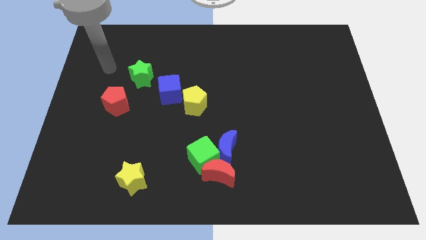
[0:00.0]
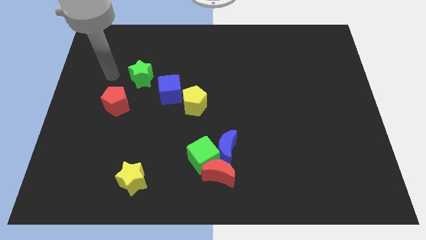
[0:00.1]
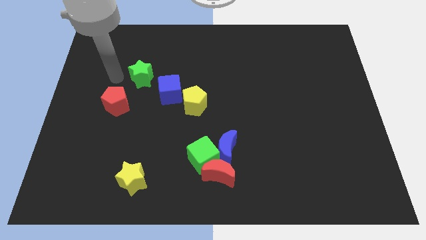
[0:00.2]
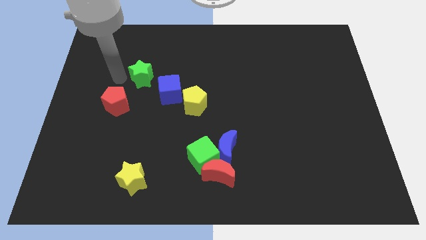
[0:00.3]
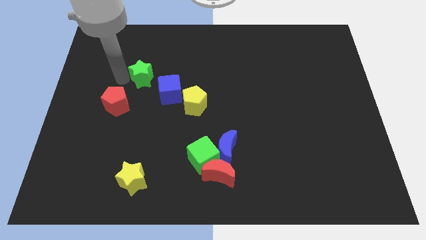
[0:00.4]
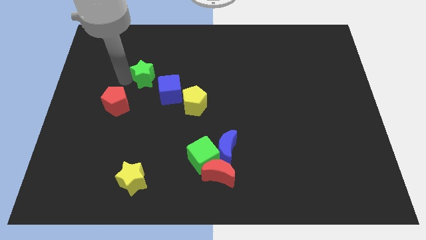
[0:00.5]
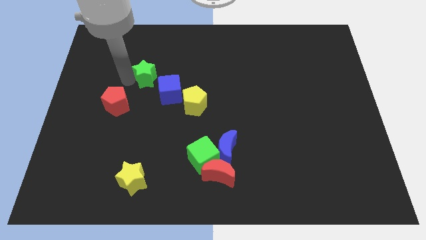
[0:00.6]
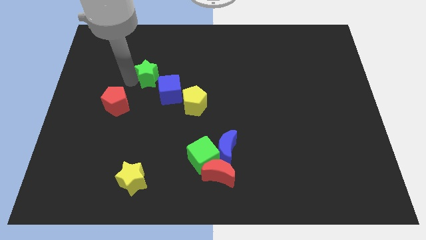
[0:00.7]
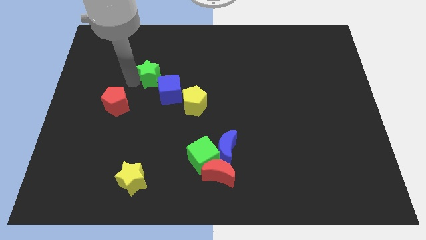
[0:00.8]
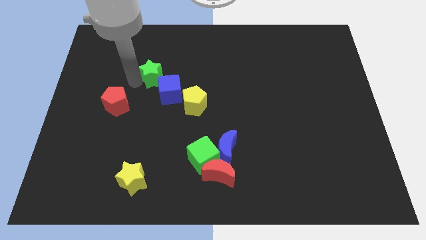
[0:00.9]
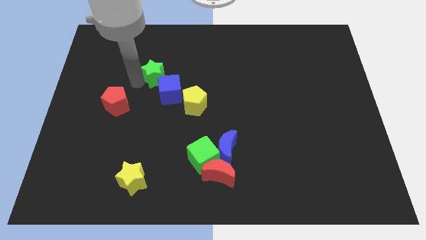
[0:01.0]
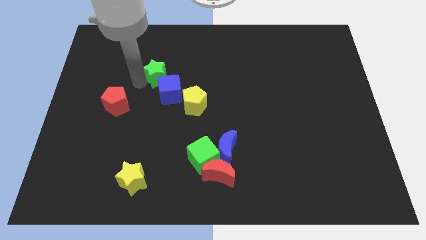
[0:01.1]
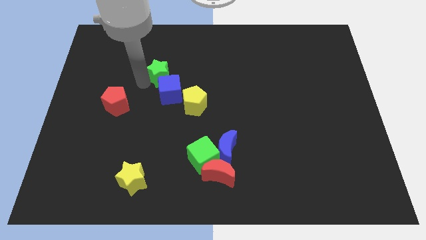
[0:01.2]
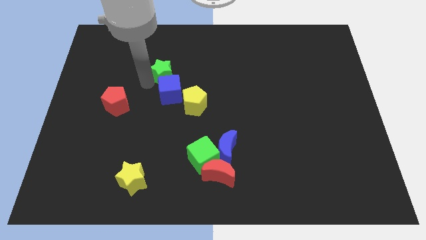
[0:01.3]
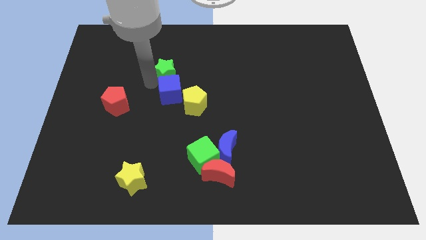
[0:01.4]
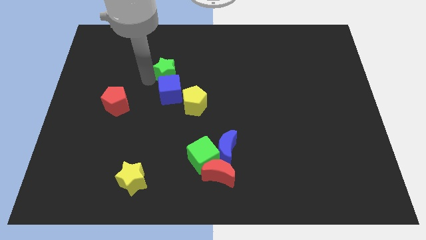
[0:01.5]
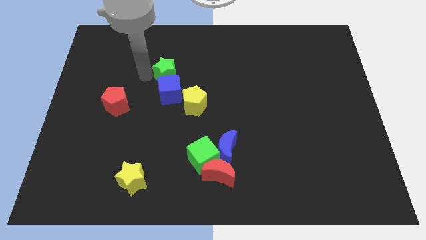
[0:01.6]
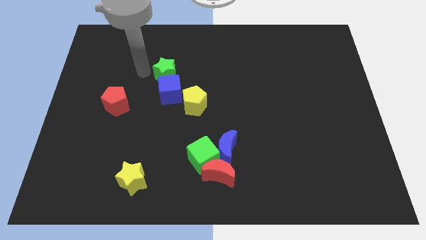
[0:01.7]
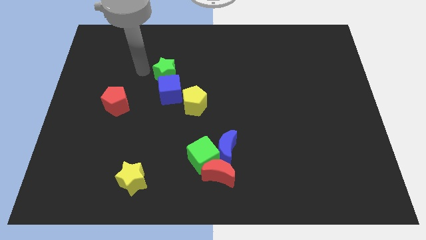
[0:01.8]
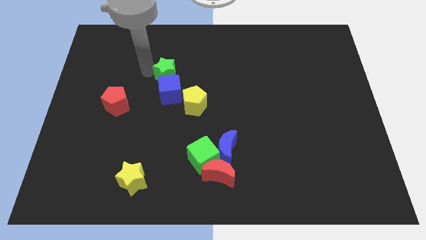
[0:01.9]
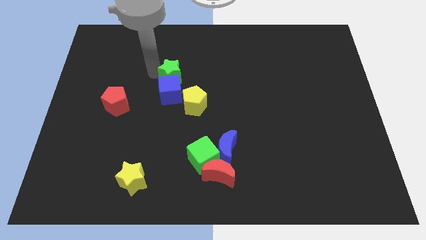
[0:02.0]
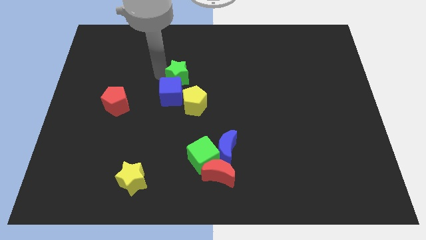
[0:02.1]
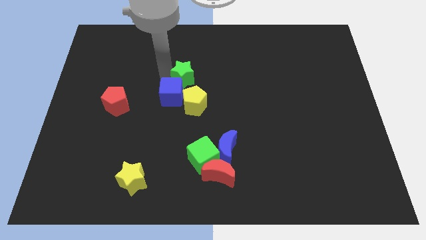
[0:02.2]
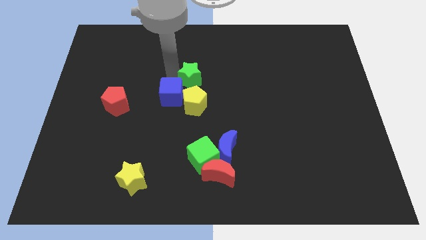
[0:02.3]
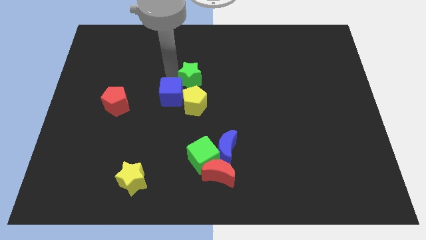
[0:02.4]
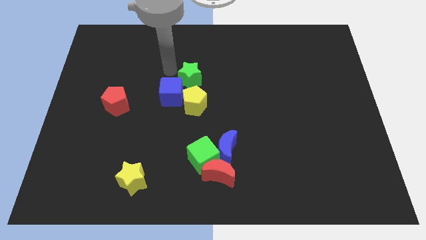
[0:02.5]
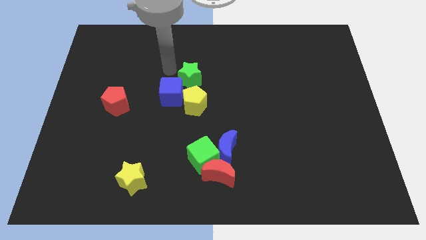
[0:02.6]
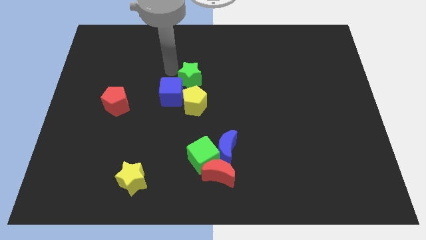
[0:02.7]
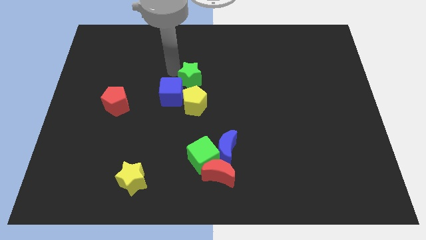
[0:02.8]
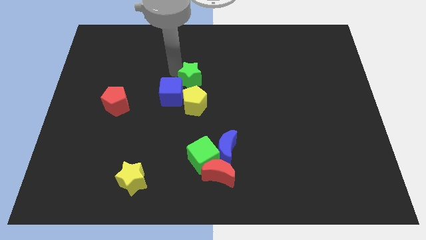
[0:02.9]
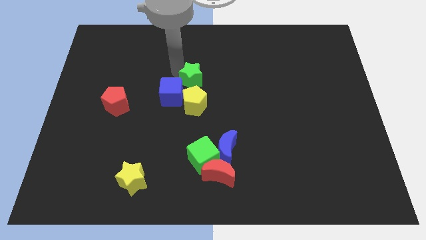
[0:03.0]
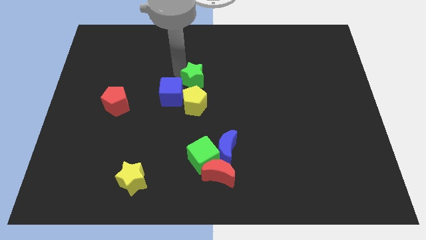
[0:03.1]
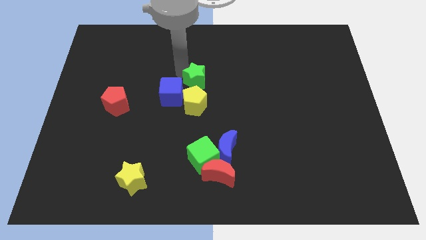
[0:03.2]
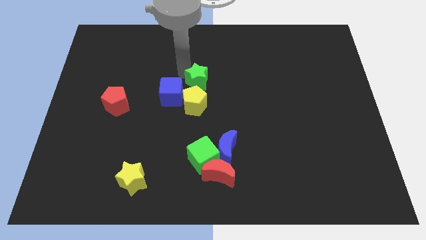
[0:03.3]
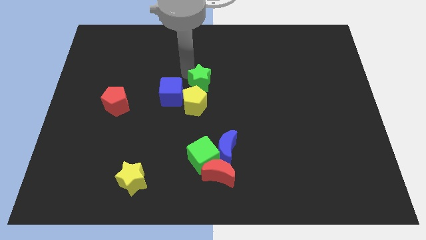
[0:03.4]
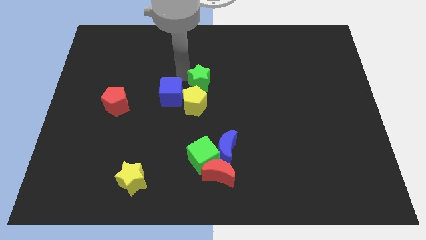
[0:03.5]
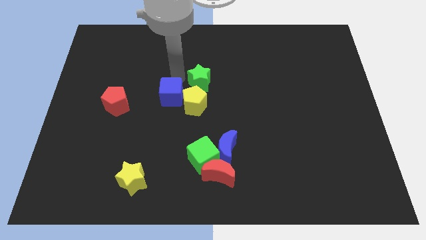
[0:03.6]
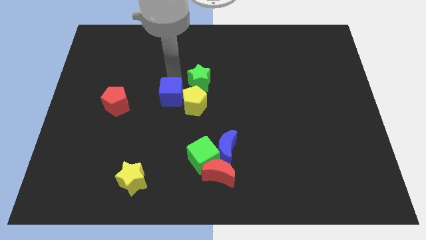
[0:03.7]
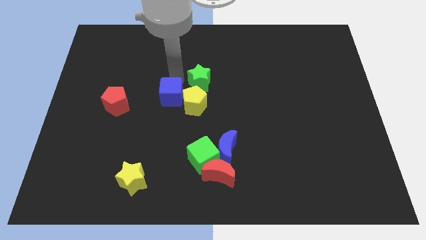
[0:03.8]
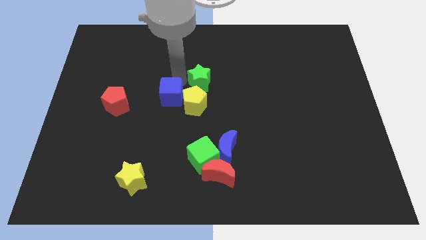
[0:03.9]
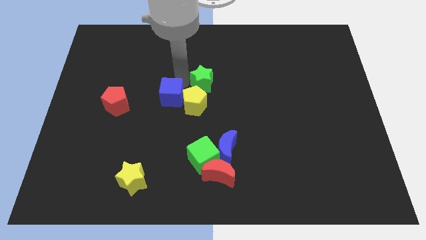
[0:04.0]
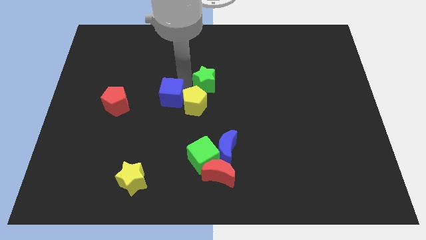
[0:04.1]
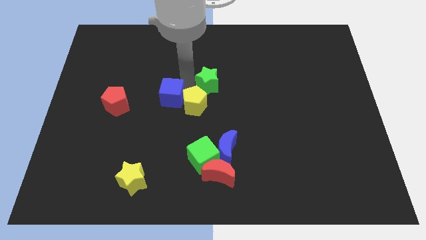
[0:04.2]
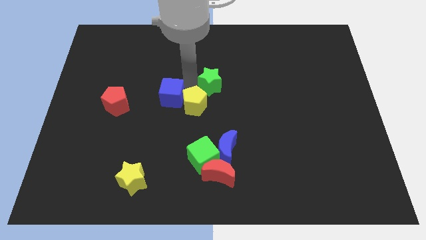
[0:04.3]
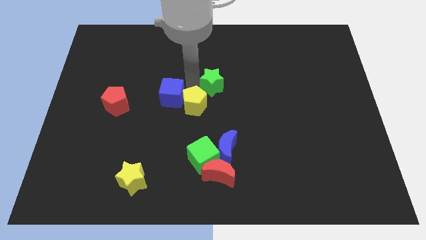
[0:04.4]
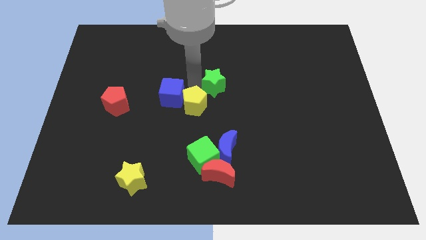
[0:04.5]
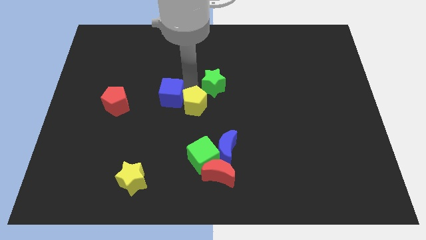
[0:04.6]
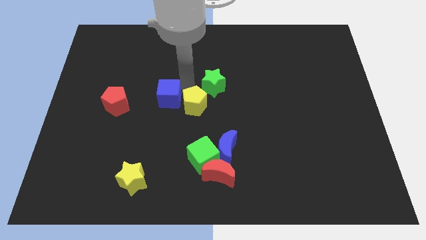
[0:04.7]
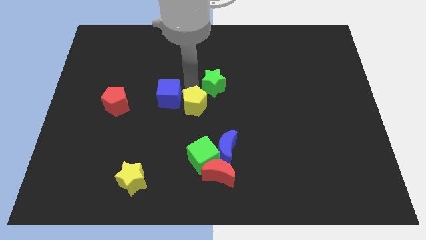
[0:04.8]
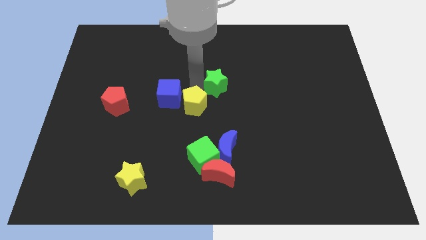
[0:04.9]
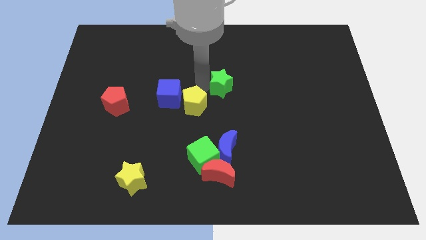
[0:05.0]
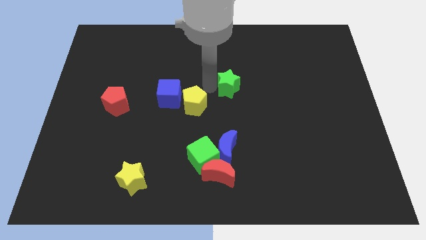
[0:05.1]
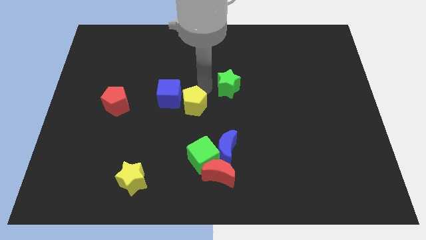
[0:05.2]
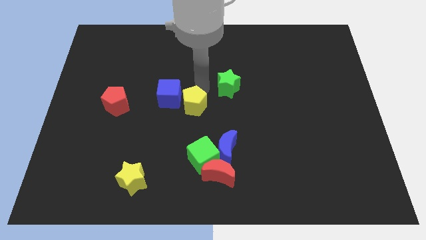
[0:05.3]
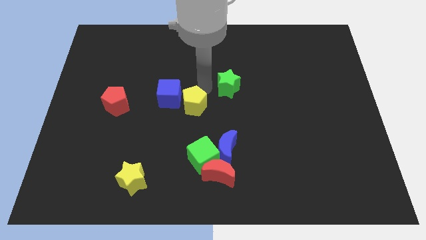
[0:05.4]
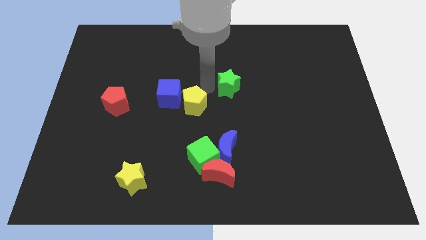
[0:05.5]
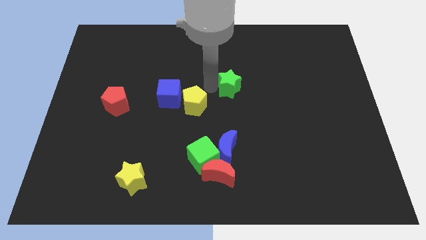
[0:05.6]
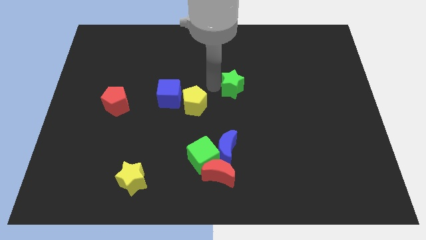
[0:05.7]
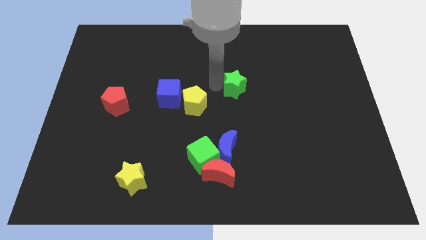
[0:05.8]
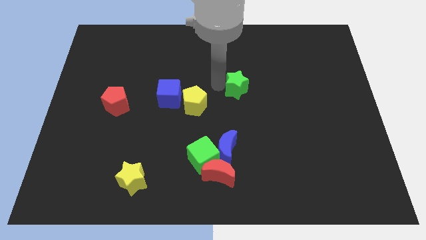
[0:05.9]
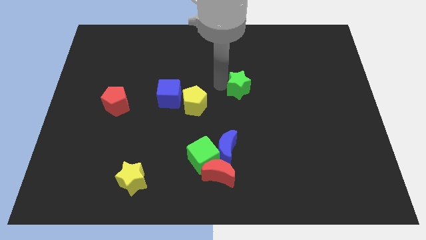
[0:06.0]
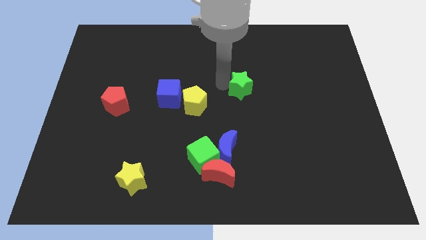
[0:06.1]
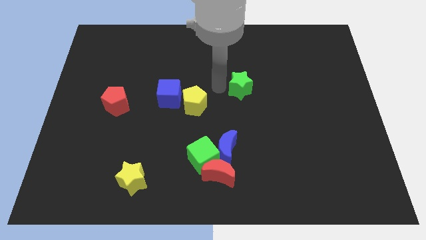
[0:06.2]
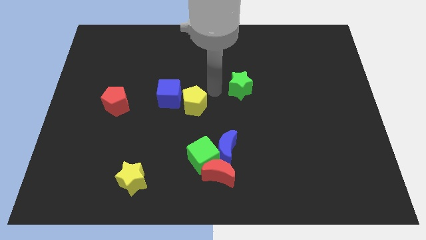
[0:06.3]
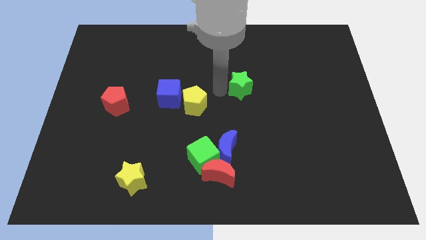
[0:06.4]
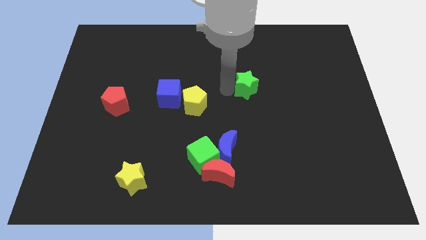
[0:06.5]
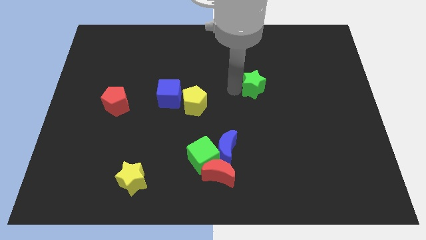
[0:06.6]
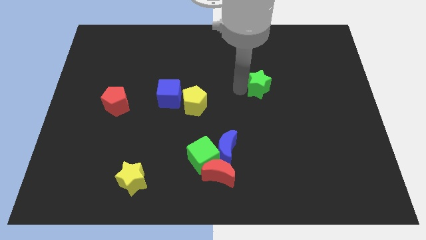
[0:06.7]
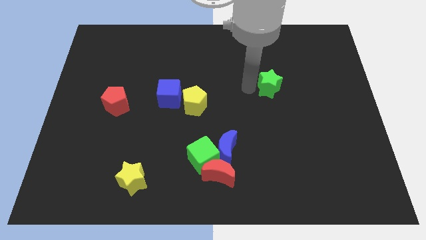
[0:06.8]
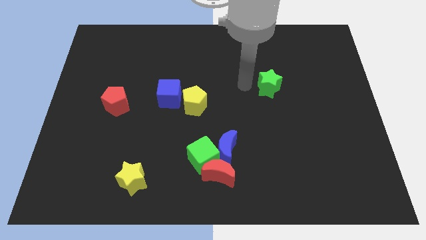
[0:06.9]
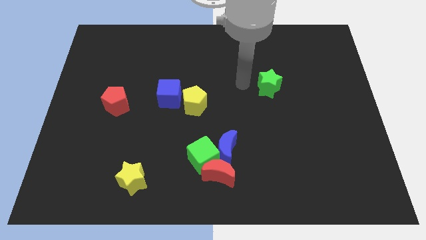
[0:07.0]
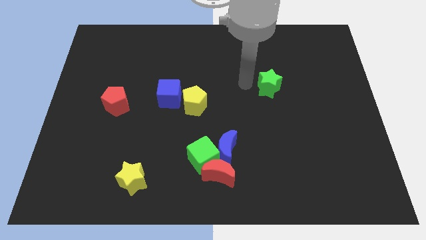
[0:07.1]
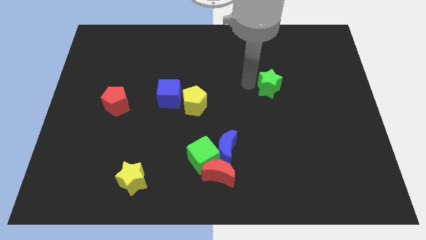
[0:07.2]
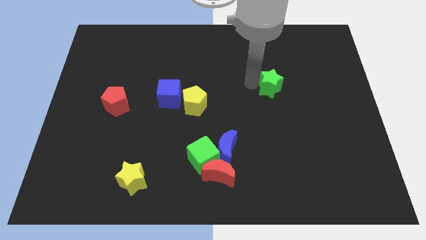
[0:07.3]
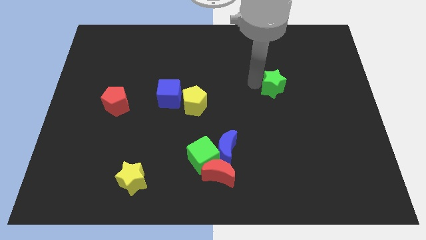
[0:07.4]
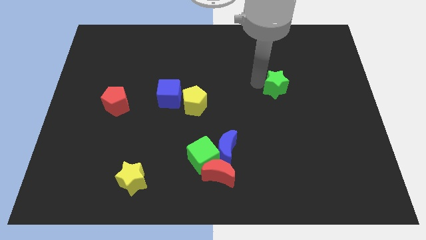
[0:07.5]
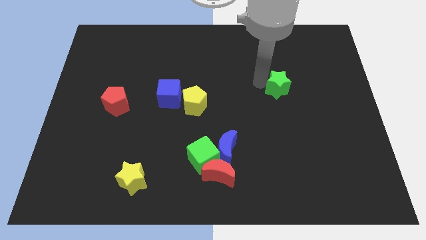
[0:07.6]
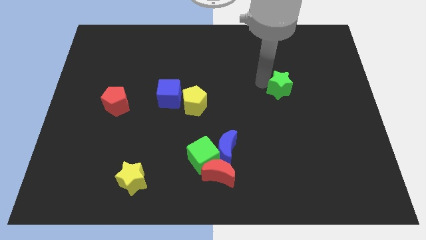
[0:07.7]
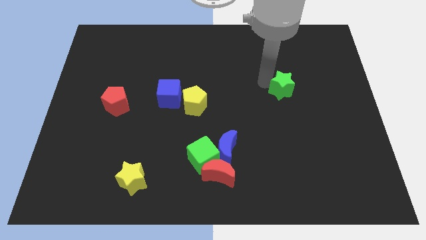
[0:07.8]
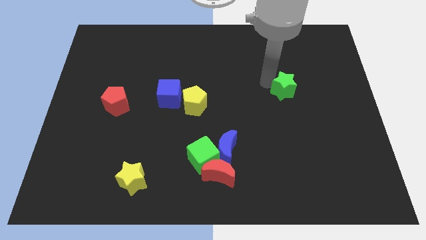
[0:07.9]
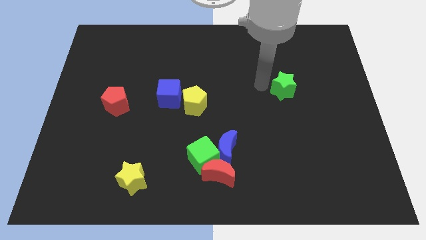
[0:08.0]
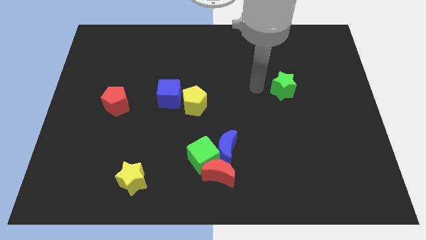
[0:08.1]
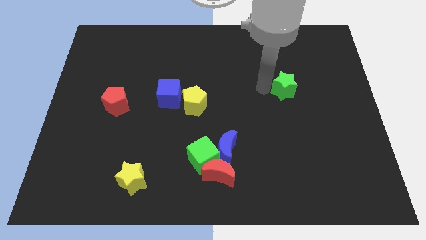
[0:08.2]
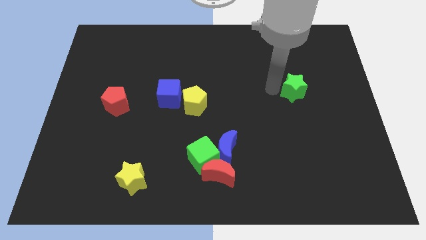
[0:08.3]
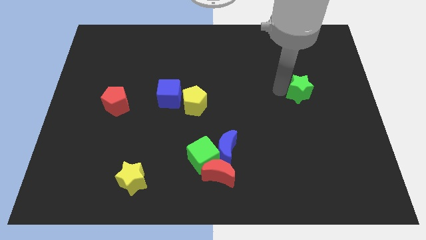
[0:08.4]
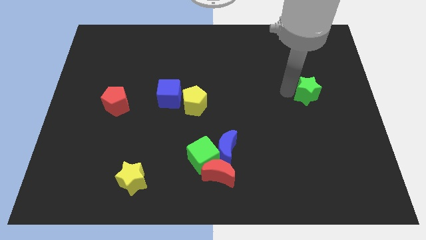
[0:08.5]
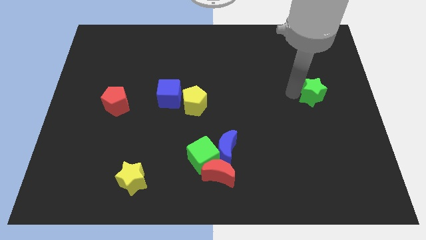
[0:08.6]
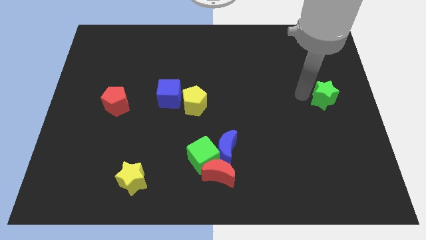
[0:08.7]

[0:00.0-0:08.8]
slide the green star to the right side of the board
